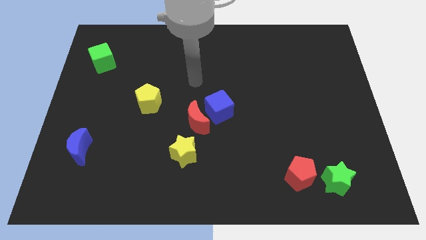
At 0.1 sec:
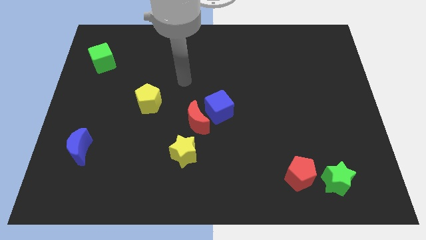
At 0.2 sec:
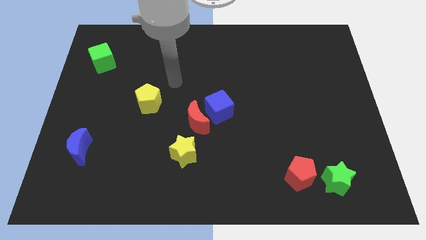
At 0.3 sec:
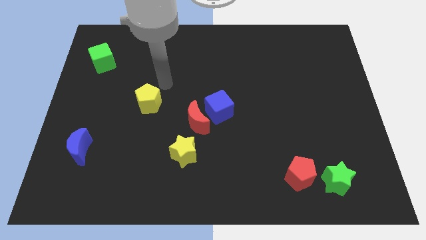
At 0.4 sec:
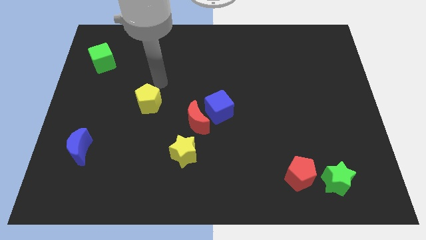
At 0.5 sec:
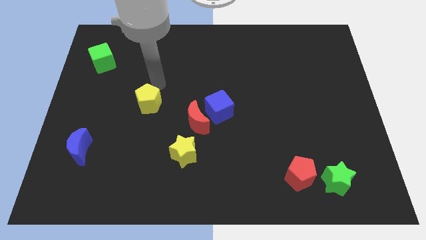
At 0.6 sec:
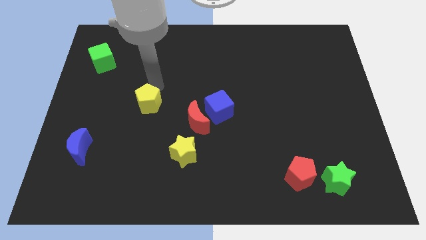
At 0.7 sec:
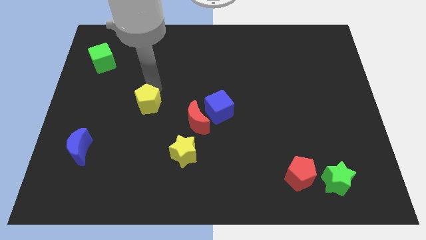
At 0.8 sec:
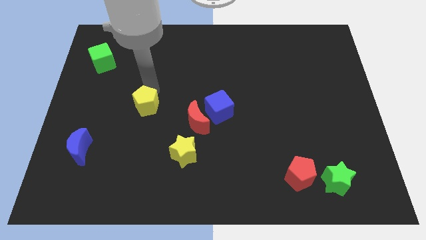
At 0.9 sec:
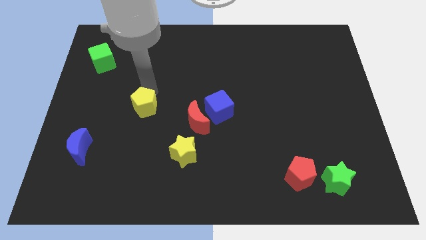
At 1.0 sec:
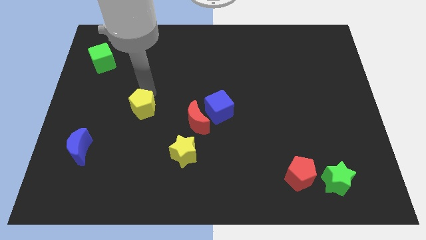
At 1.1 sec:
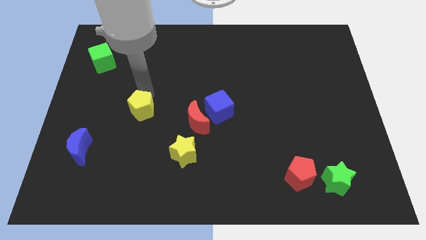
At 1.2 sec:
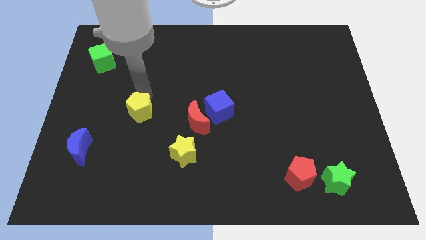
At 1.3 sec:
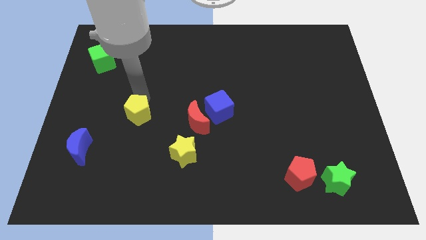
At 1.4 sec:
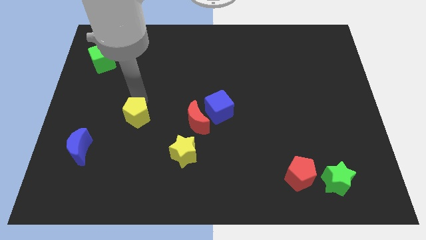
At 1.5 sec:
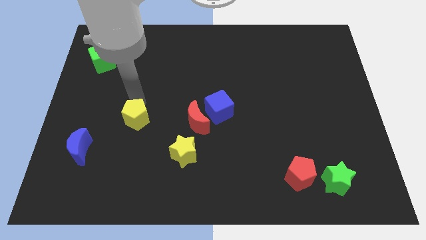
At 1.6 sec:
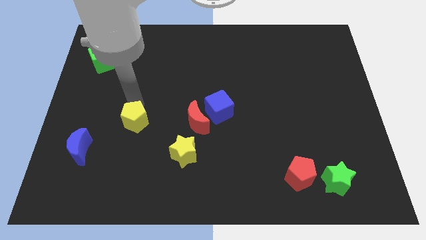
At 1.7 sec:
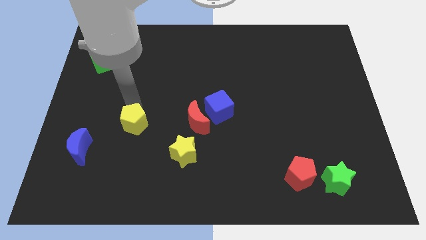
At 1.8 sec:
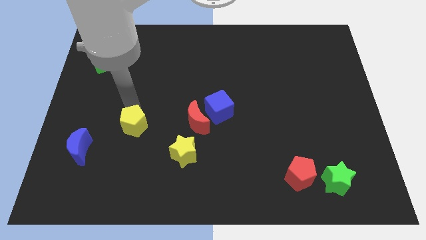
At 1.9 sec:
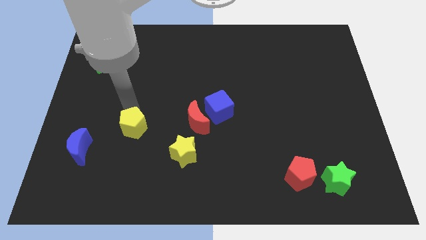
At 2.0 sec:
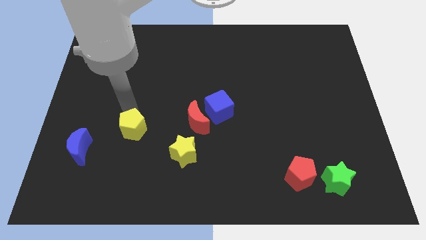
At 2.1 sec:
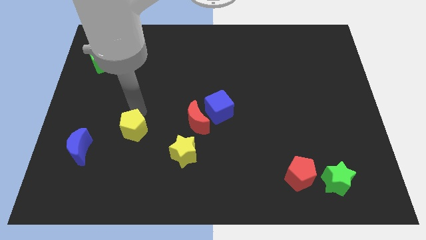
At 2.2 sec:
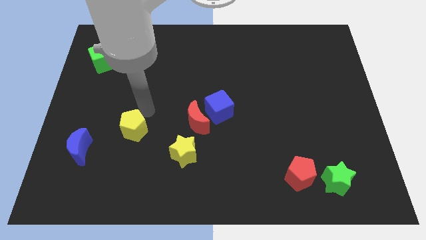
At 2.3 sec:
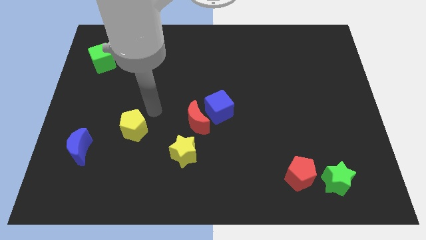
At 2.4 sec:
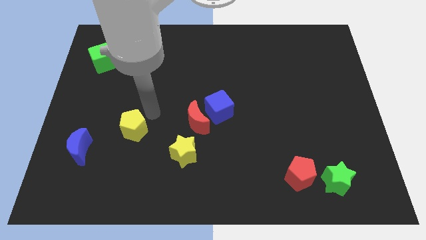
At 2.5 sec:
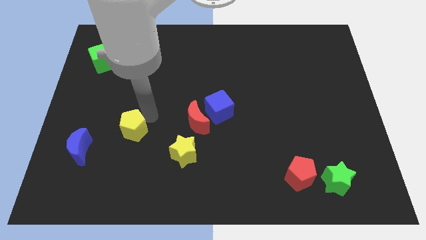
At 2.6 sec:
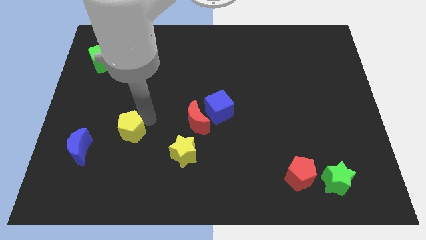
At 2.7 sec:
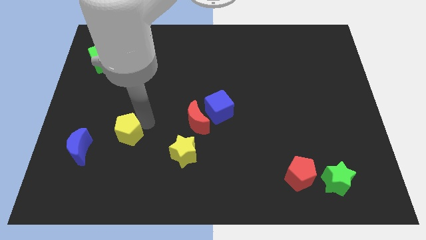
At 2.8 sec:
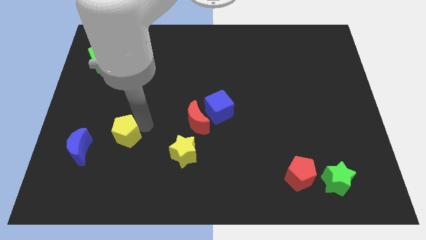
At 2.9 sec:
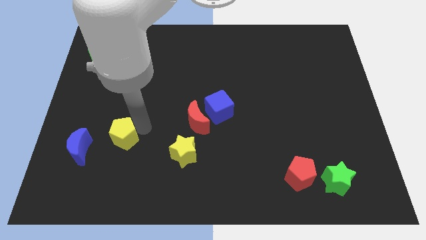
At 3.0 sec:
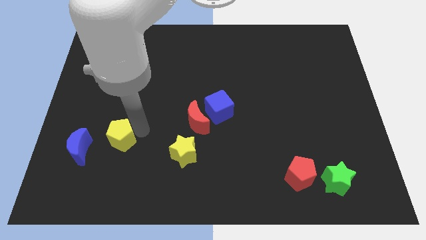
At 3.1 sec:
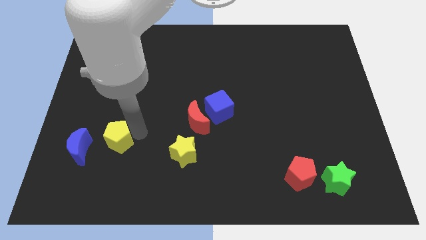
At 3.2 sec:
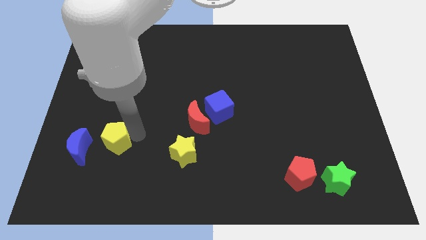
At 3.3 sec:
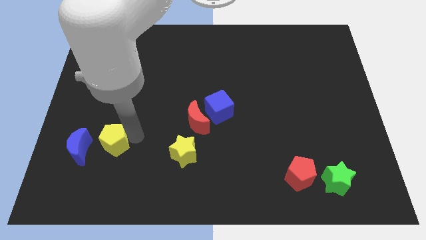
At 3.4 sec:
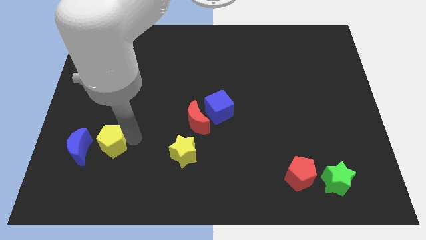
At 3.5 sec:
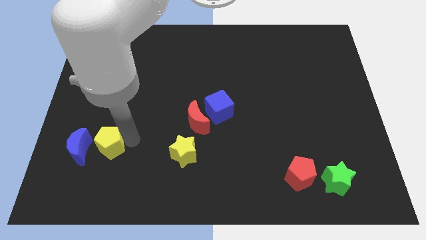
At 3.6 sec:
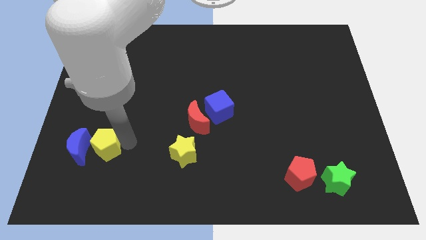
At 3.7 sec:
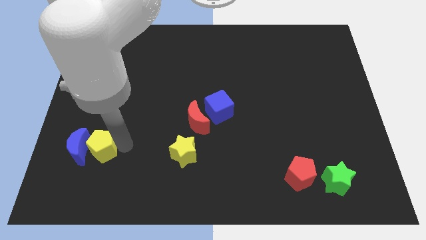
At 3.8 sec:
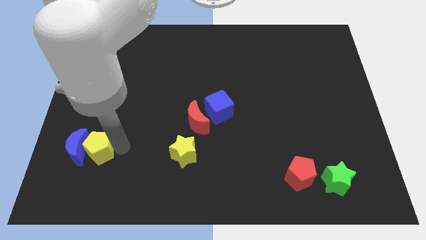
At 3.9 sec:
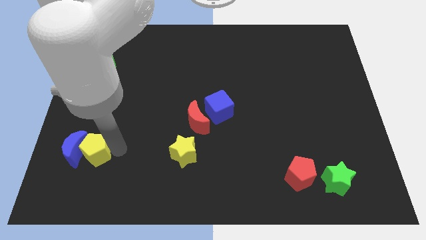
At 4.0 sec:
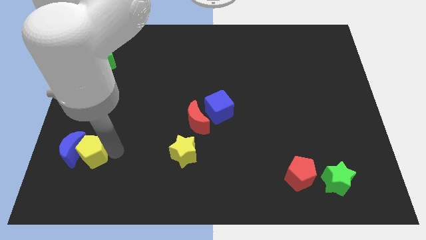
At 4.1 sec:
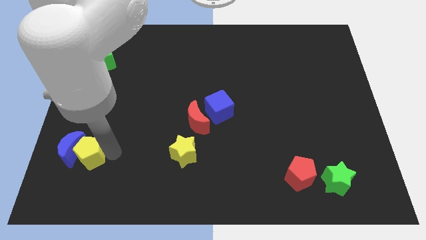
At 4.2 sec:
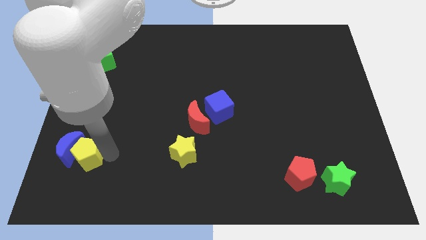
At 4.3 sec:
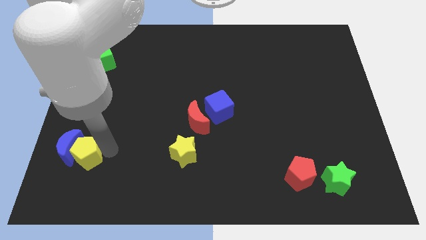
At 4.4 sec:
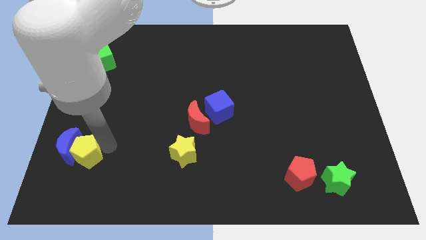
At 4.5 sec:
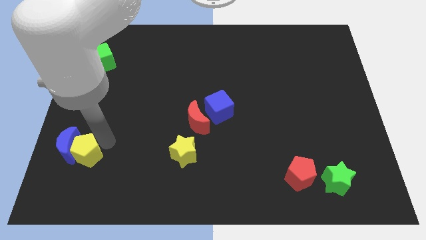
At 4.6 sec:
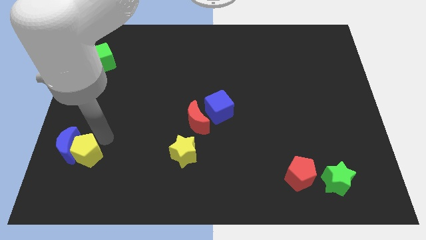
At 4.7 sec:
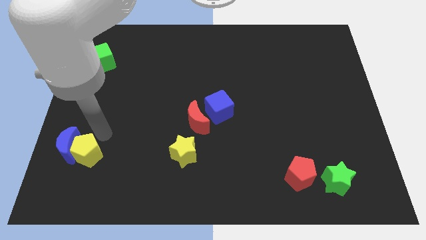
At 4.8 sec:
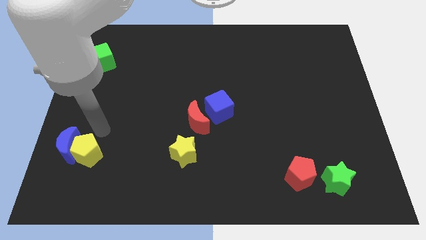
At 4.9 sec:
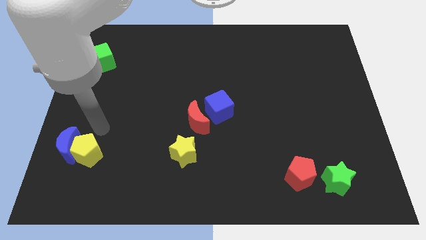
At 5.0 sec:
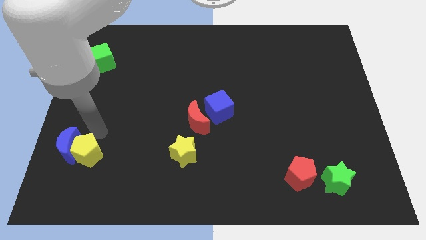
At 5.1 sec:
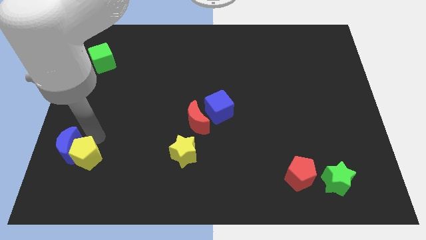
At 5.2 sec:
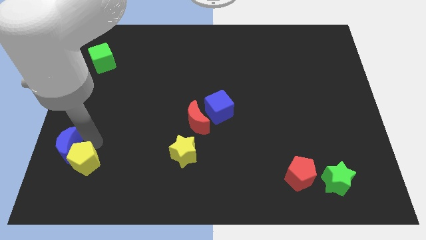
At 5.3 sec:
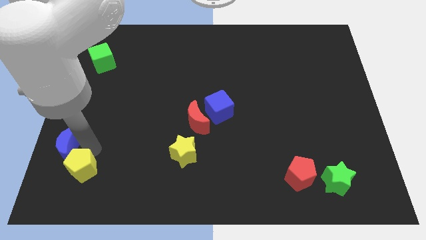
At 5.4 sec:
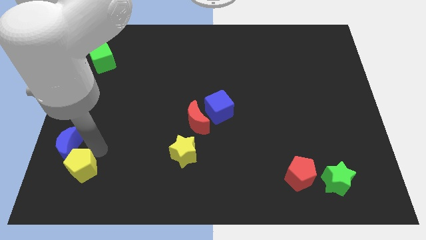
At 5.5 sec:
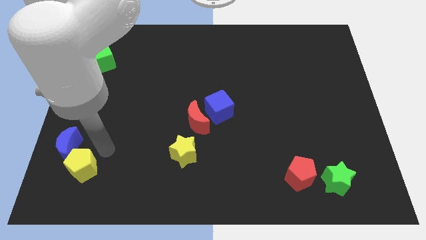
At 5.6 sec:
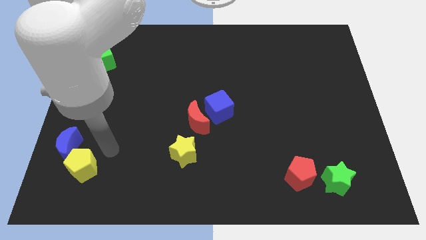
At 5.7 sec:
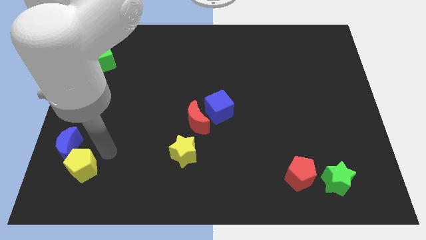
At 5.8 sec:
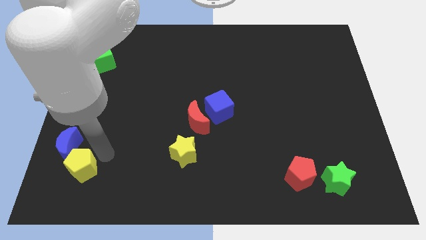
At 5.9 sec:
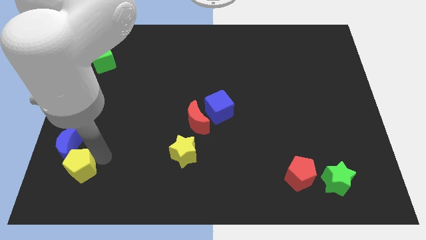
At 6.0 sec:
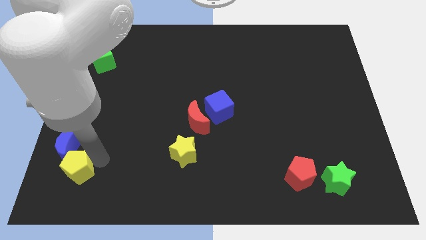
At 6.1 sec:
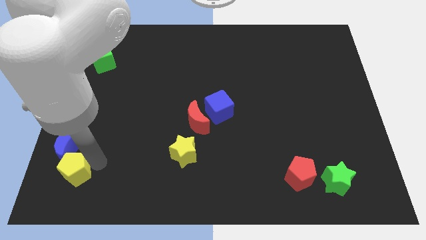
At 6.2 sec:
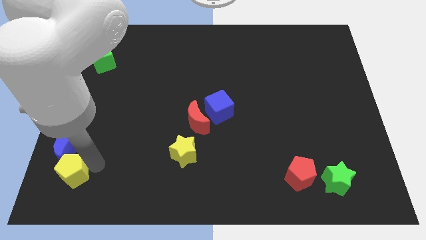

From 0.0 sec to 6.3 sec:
move the yellow pentagon to the bottom left corner
